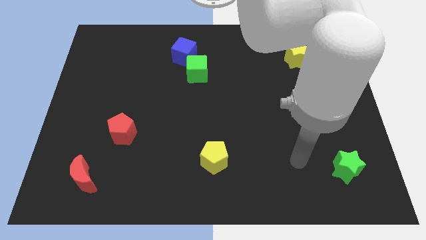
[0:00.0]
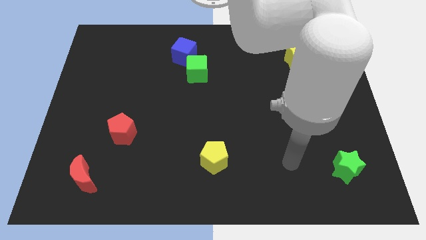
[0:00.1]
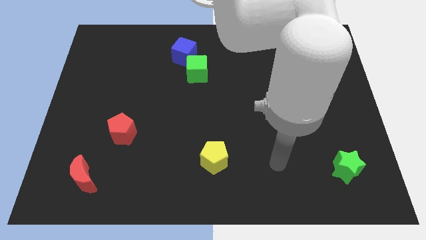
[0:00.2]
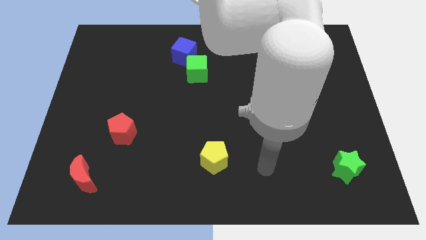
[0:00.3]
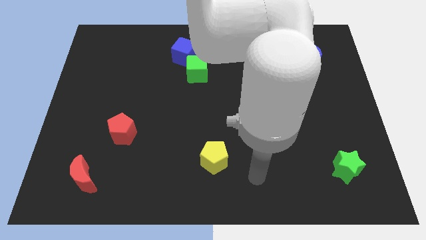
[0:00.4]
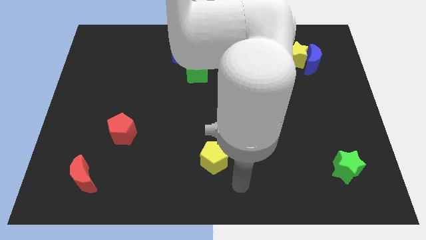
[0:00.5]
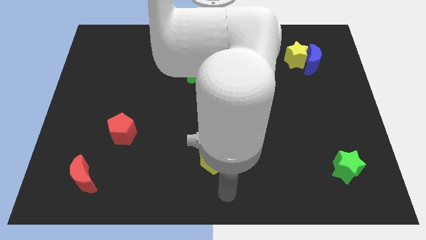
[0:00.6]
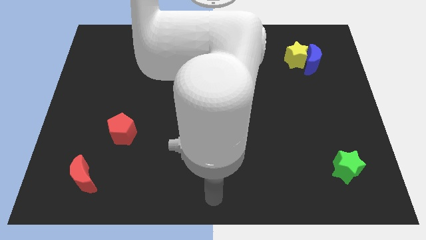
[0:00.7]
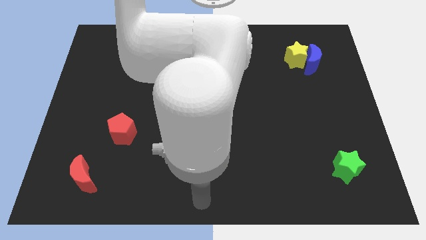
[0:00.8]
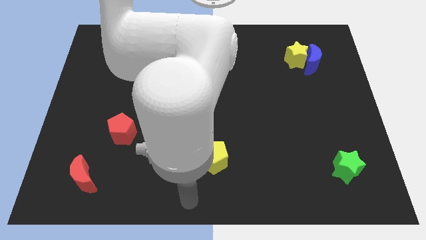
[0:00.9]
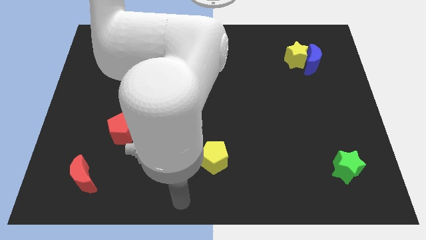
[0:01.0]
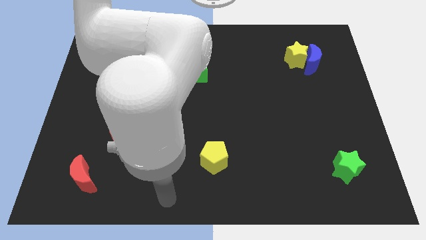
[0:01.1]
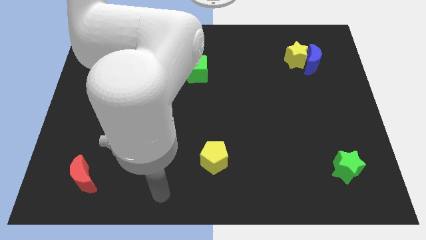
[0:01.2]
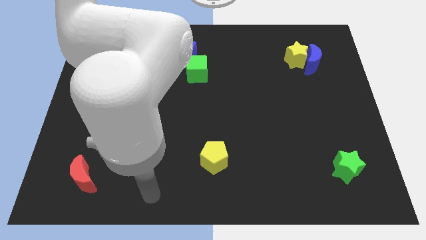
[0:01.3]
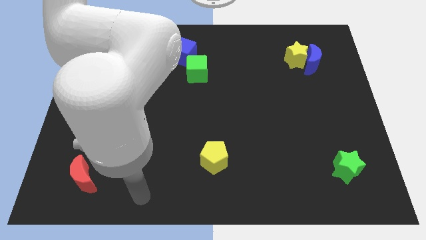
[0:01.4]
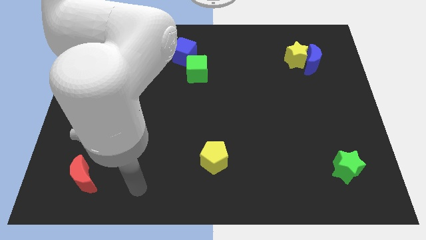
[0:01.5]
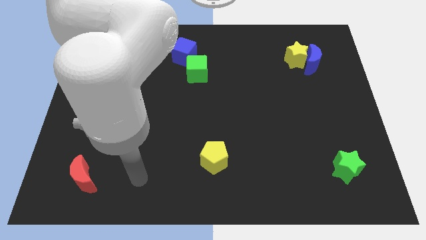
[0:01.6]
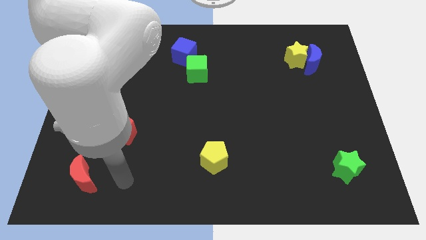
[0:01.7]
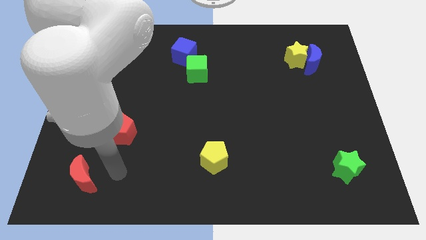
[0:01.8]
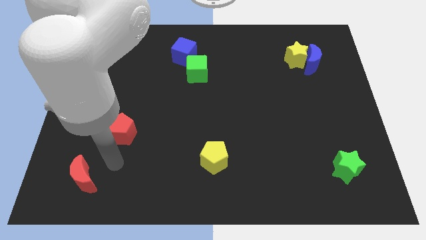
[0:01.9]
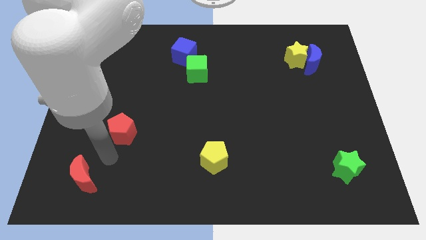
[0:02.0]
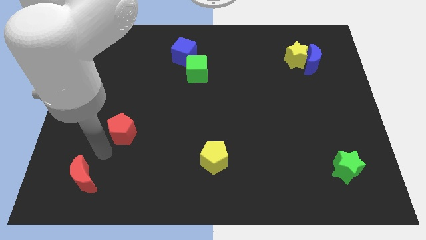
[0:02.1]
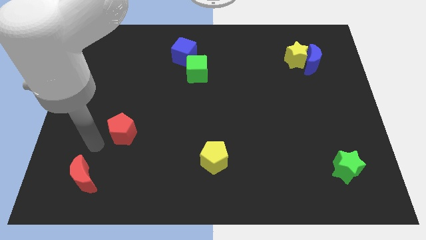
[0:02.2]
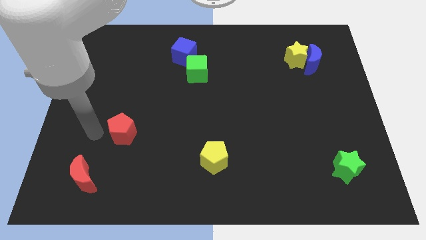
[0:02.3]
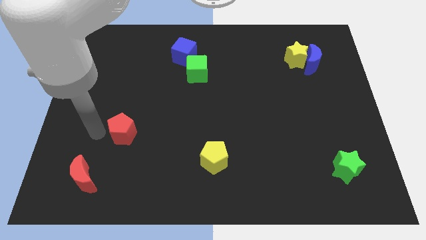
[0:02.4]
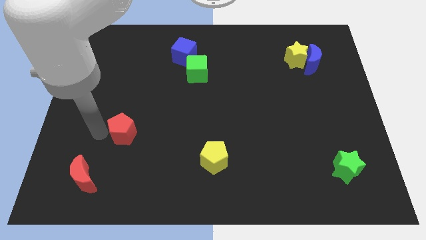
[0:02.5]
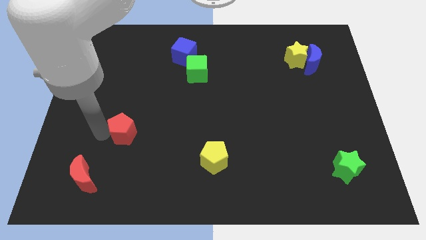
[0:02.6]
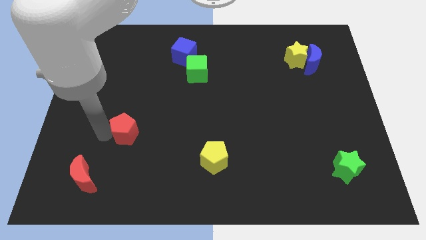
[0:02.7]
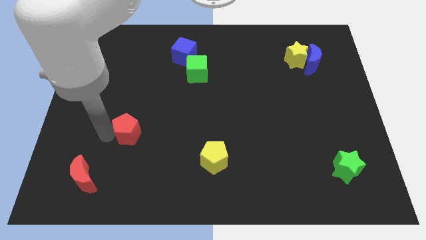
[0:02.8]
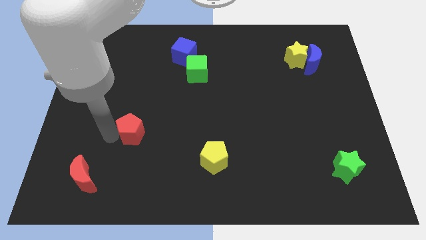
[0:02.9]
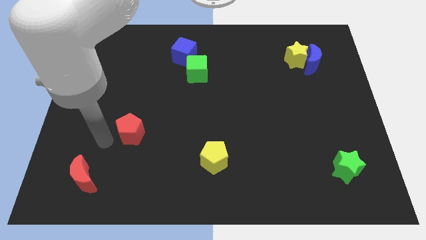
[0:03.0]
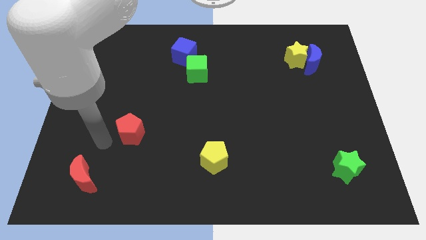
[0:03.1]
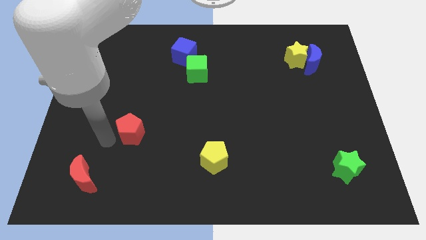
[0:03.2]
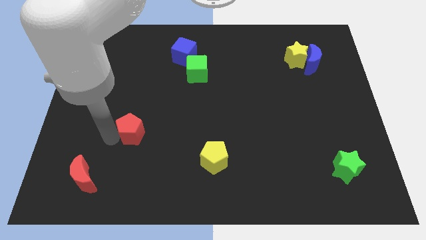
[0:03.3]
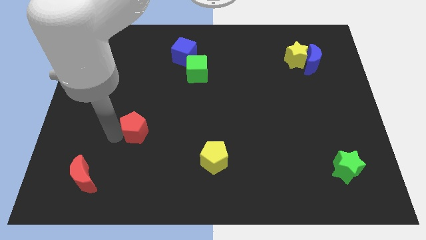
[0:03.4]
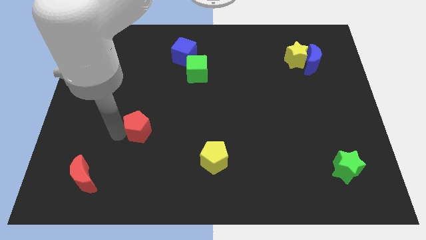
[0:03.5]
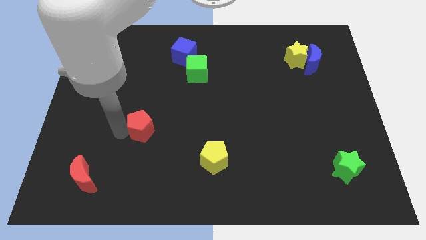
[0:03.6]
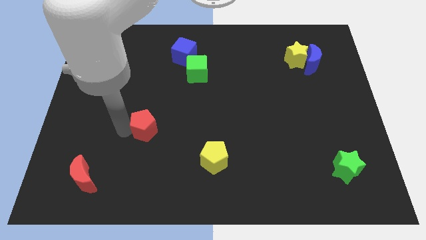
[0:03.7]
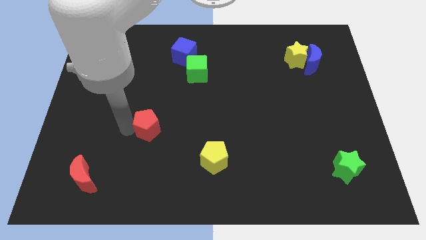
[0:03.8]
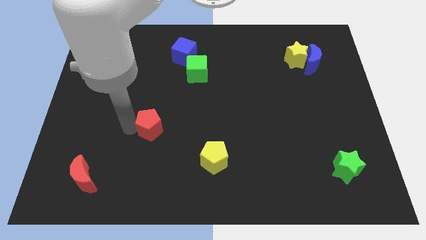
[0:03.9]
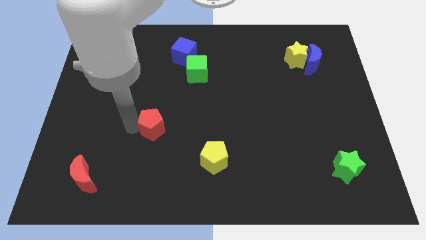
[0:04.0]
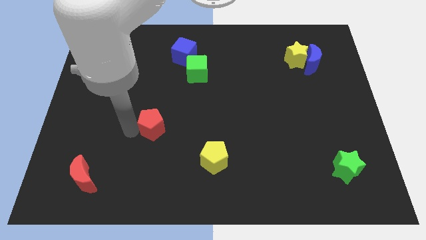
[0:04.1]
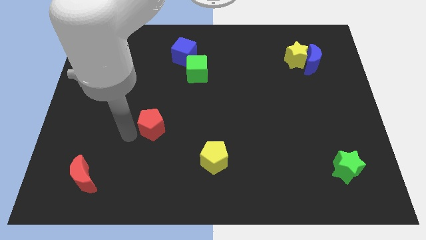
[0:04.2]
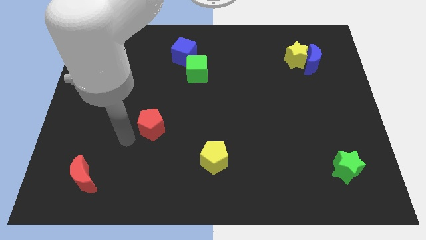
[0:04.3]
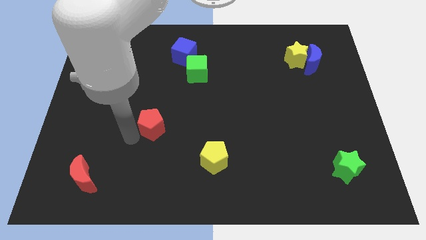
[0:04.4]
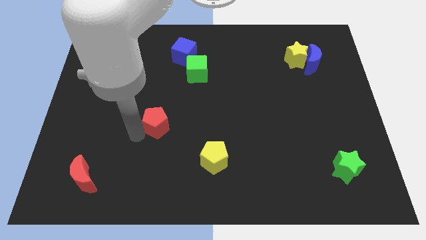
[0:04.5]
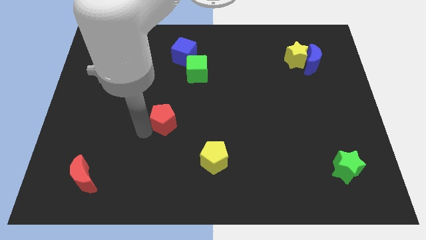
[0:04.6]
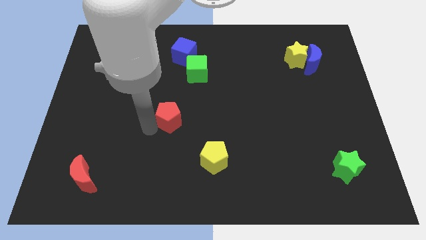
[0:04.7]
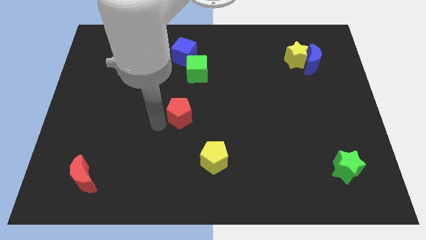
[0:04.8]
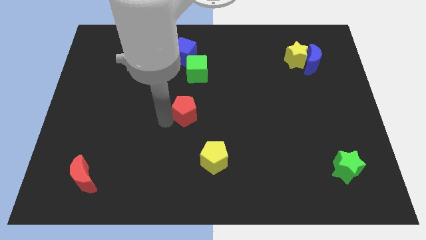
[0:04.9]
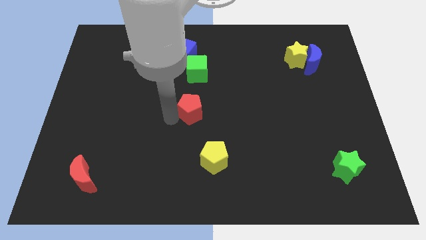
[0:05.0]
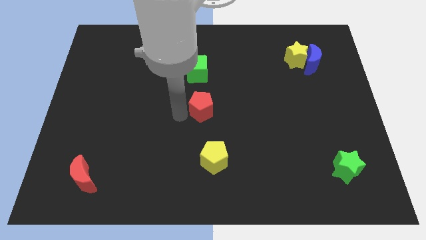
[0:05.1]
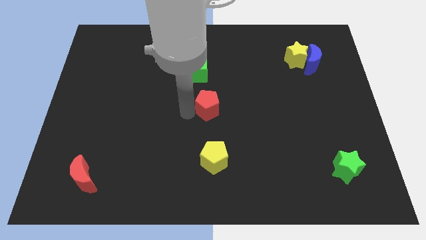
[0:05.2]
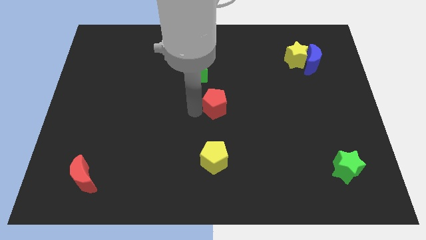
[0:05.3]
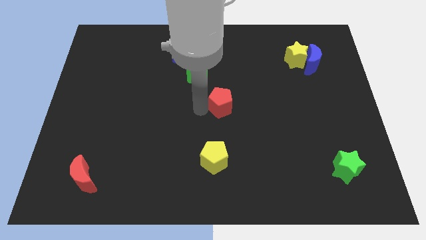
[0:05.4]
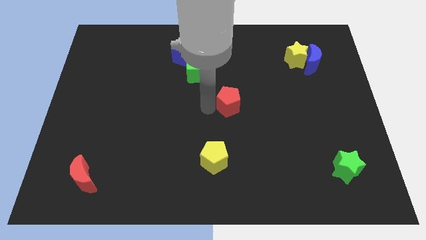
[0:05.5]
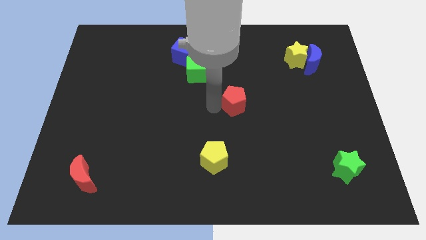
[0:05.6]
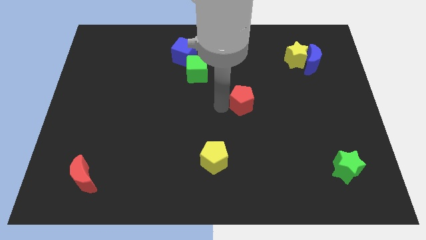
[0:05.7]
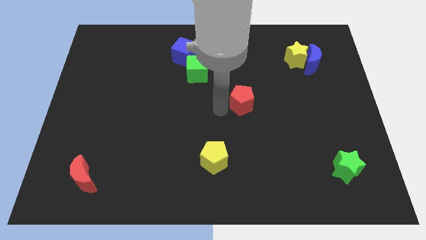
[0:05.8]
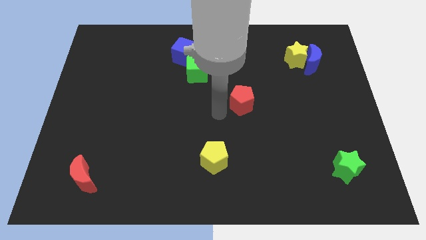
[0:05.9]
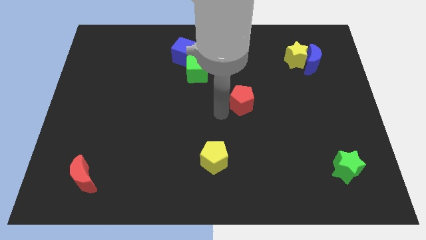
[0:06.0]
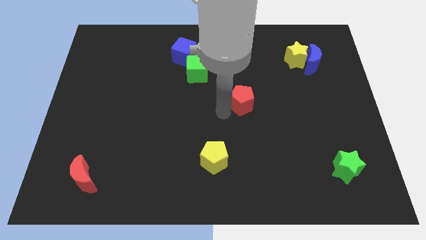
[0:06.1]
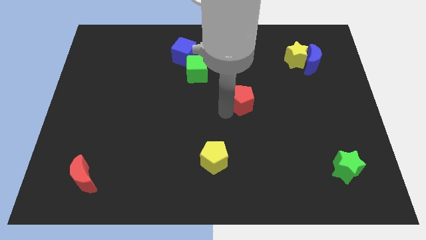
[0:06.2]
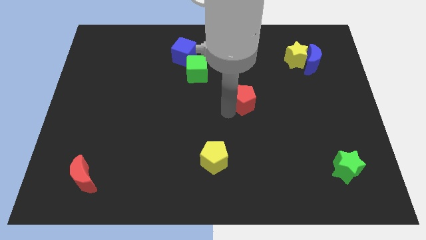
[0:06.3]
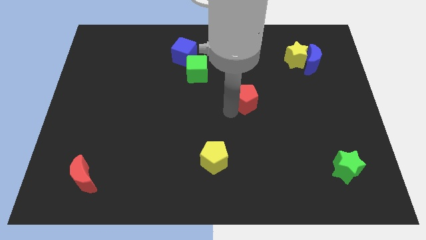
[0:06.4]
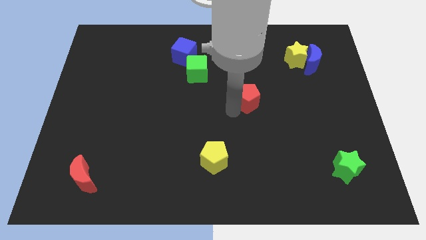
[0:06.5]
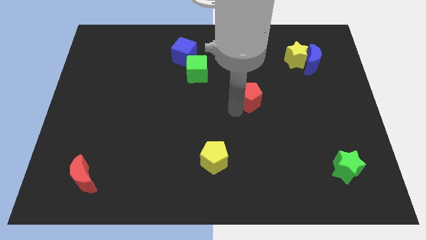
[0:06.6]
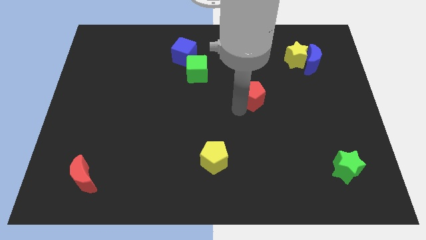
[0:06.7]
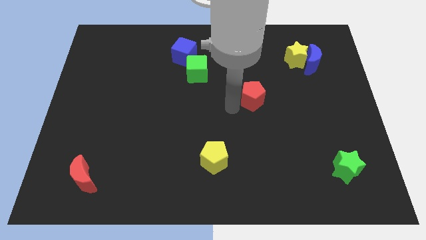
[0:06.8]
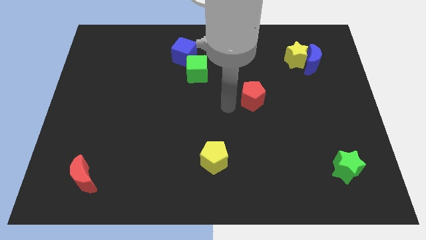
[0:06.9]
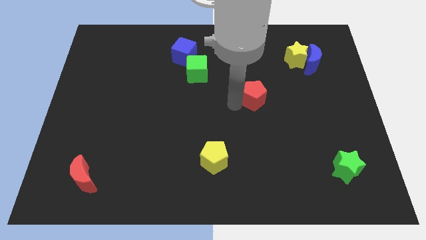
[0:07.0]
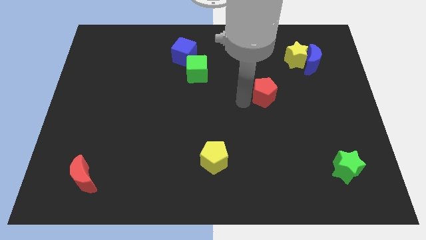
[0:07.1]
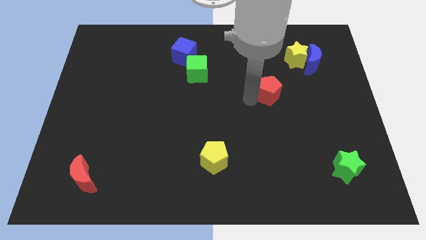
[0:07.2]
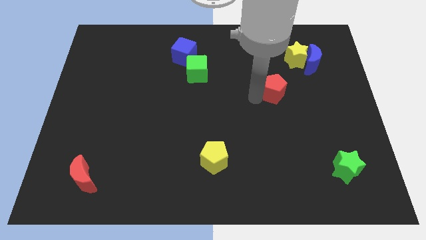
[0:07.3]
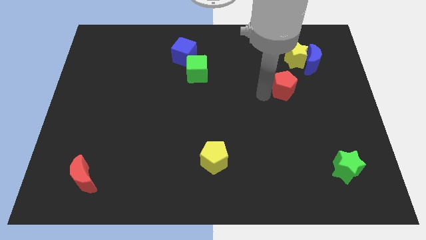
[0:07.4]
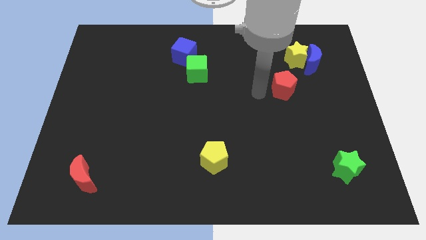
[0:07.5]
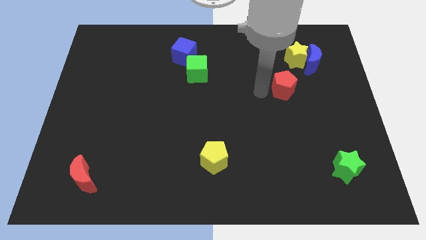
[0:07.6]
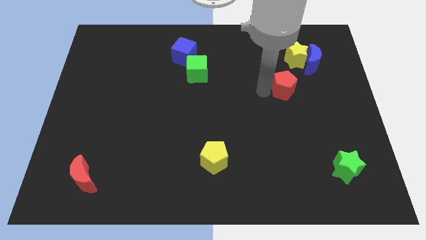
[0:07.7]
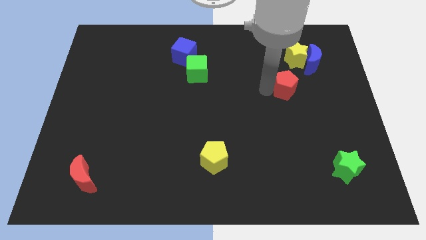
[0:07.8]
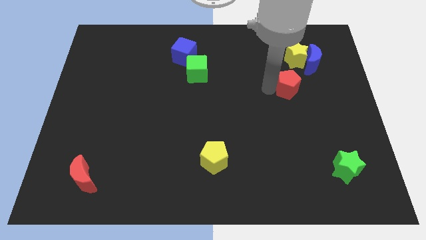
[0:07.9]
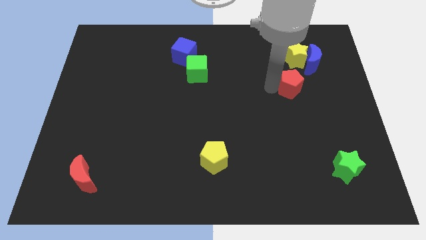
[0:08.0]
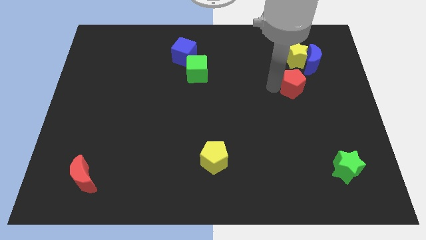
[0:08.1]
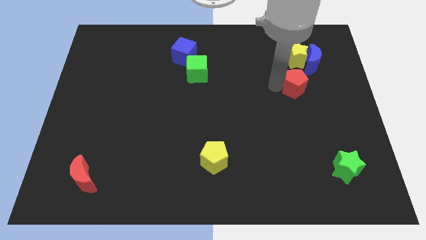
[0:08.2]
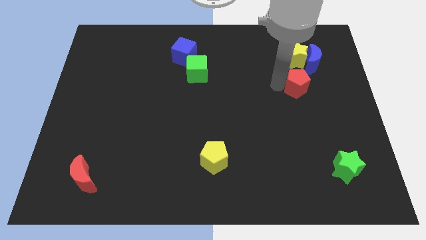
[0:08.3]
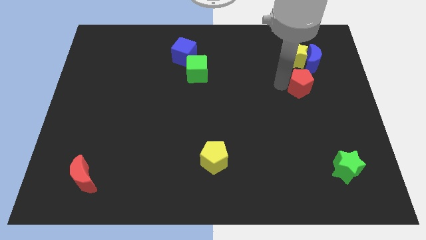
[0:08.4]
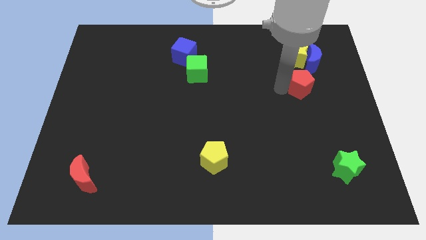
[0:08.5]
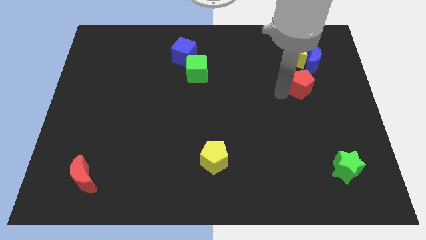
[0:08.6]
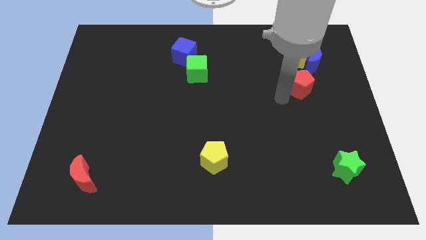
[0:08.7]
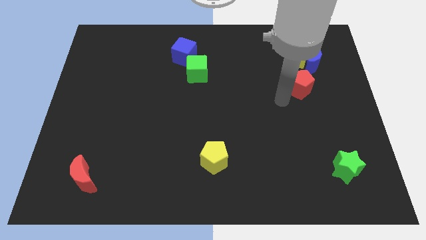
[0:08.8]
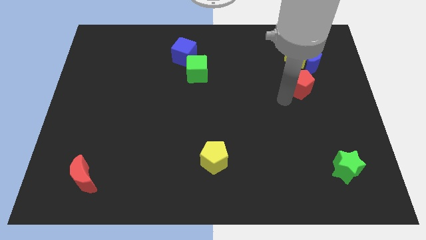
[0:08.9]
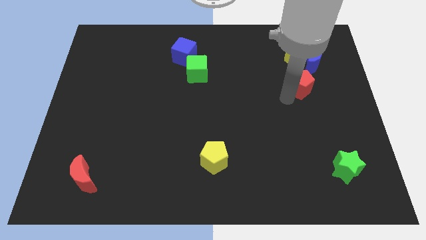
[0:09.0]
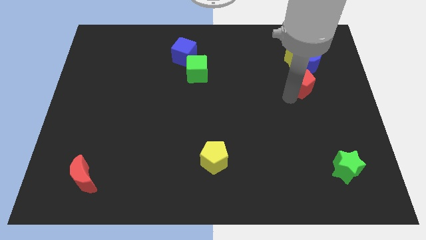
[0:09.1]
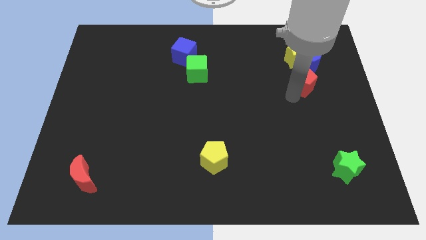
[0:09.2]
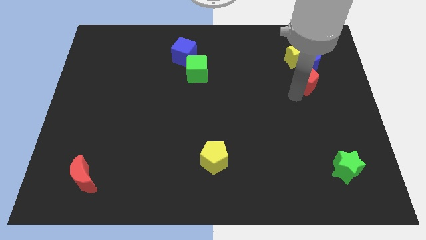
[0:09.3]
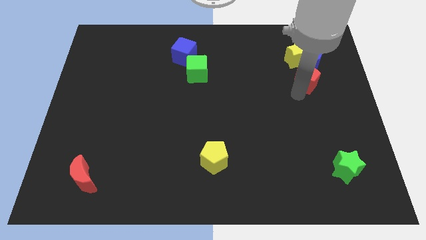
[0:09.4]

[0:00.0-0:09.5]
slide the red pentagon to the bottom right of the yellow star
